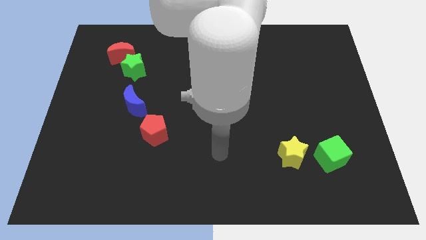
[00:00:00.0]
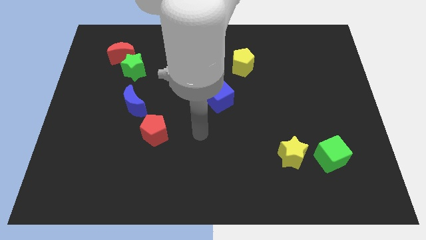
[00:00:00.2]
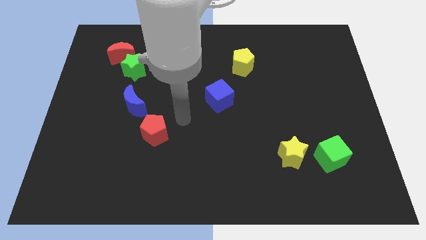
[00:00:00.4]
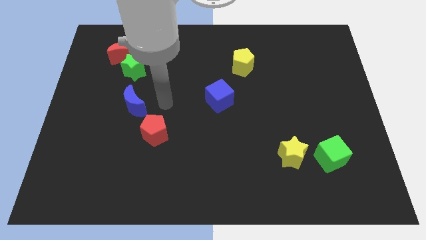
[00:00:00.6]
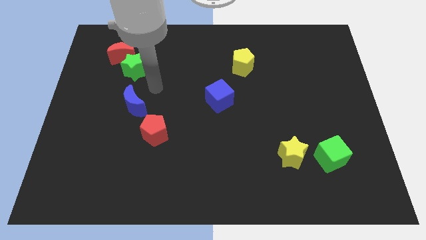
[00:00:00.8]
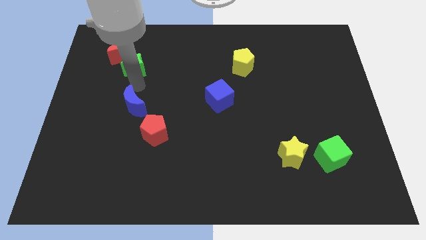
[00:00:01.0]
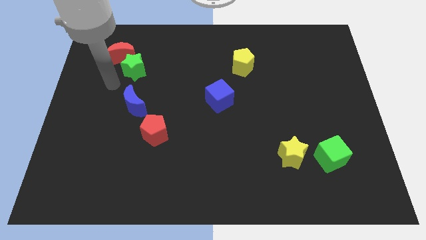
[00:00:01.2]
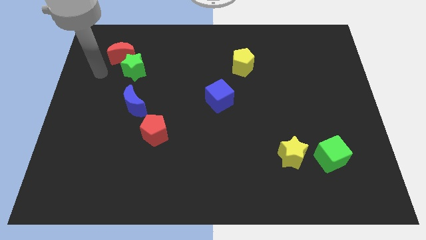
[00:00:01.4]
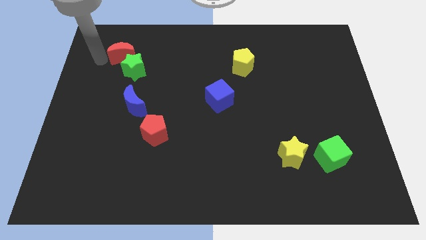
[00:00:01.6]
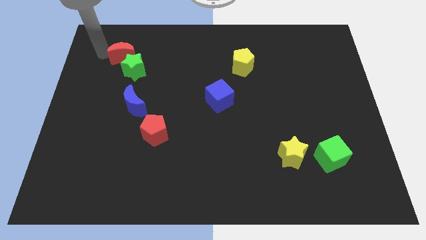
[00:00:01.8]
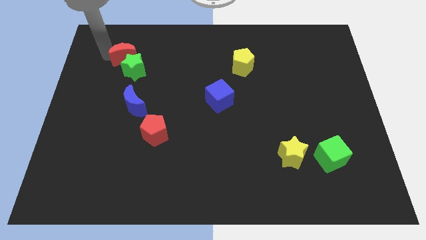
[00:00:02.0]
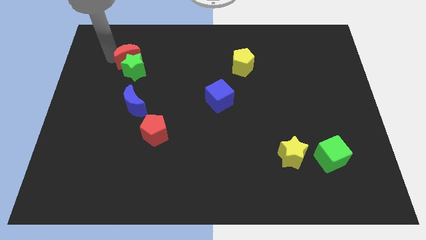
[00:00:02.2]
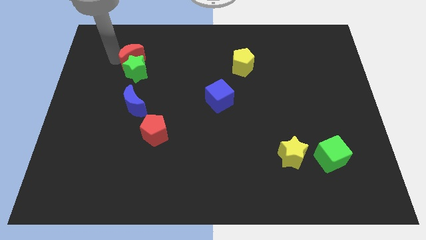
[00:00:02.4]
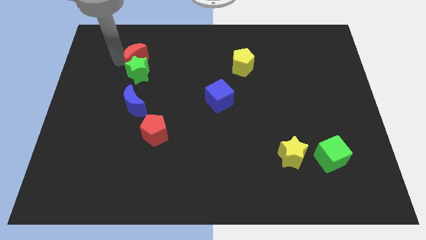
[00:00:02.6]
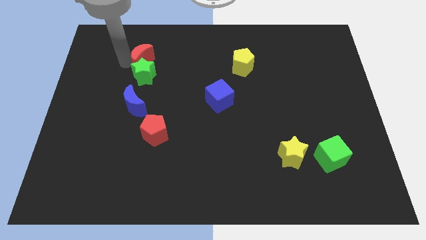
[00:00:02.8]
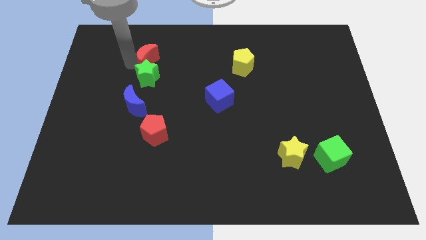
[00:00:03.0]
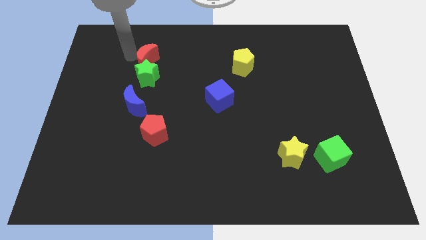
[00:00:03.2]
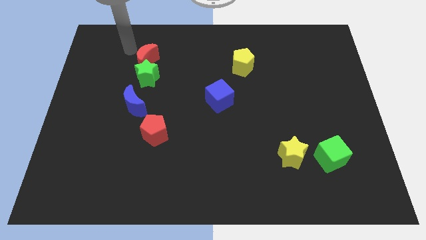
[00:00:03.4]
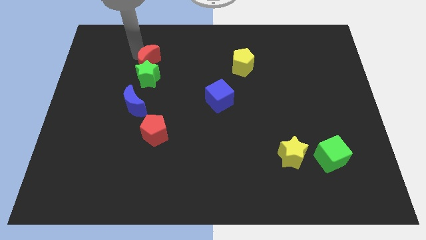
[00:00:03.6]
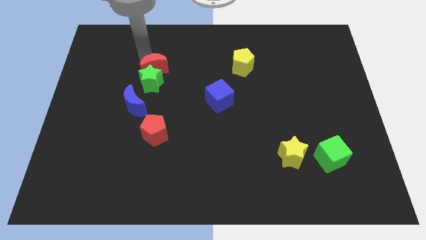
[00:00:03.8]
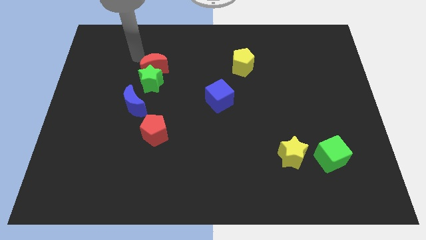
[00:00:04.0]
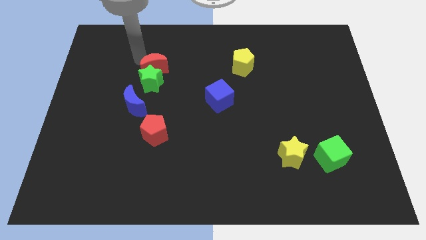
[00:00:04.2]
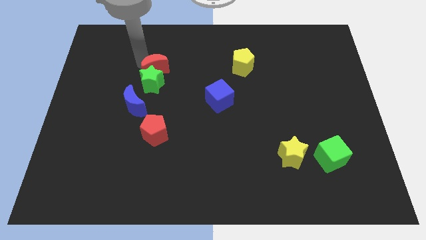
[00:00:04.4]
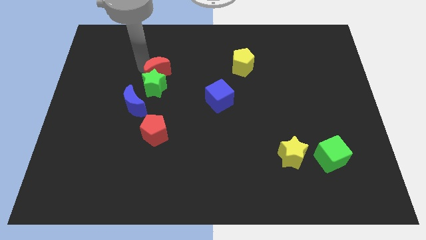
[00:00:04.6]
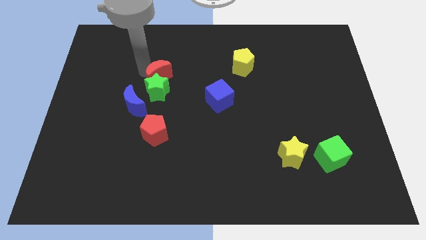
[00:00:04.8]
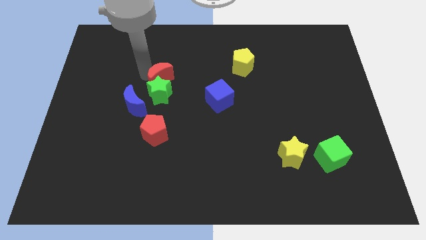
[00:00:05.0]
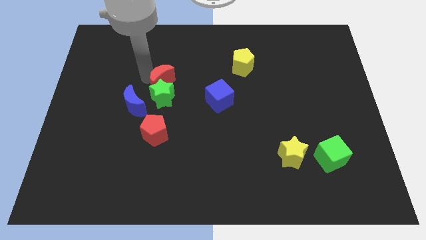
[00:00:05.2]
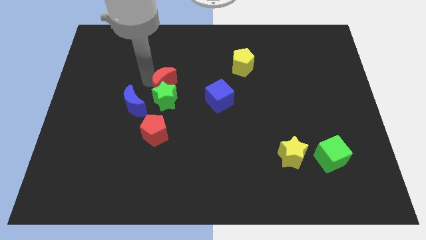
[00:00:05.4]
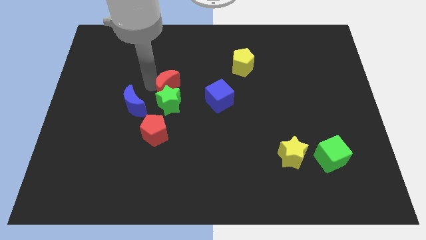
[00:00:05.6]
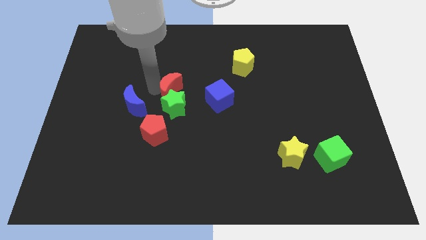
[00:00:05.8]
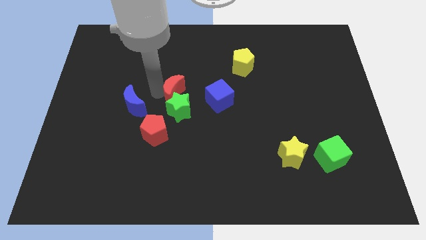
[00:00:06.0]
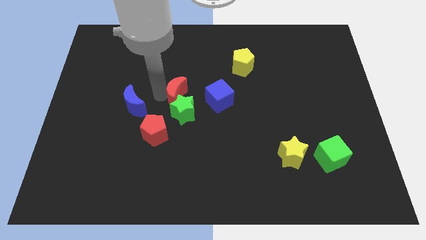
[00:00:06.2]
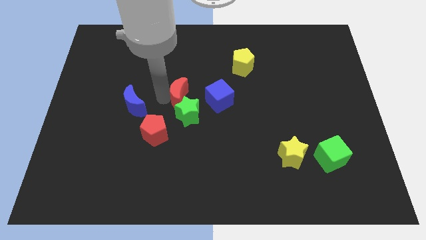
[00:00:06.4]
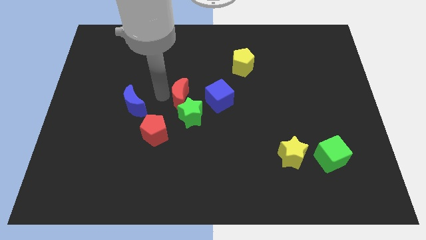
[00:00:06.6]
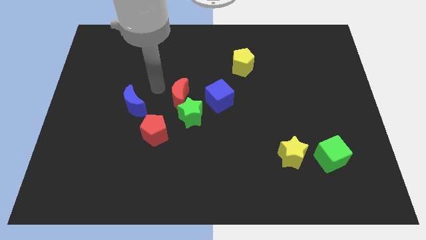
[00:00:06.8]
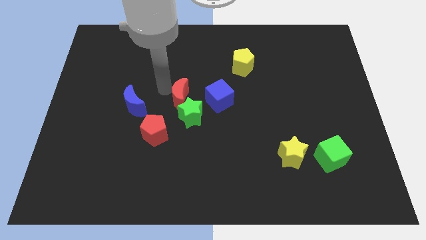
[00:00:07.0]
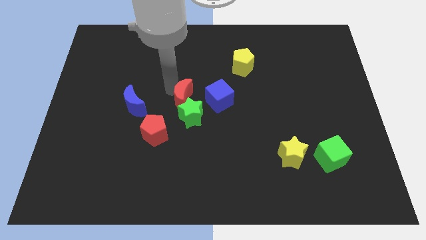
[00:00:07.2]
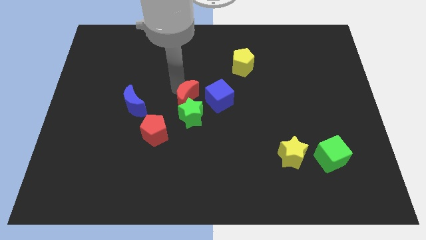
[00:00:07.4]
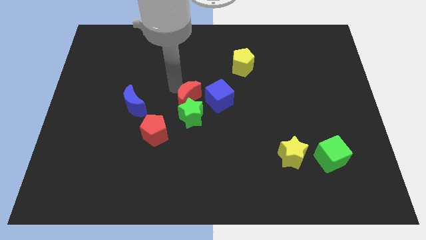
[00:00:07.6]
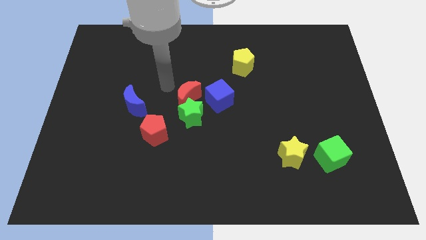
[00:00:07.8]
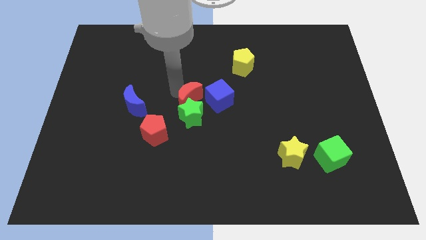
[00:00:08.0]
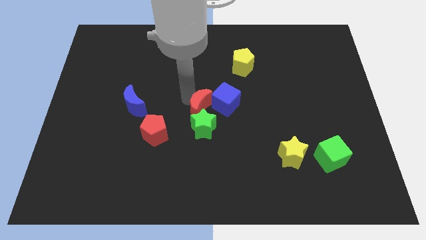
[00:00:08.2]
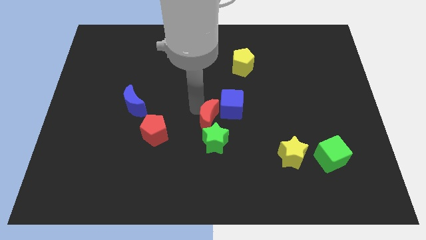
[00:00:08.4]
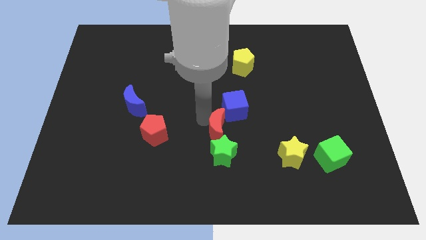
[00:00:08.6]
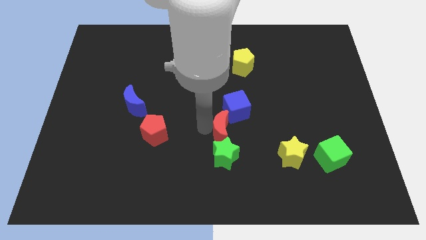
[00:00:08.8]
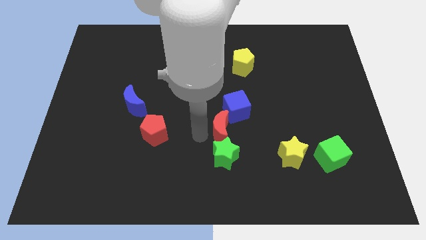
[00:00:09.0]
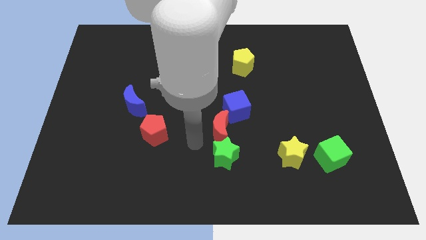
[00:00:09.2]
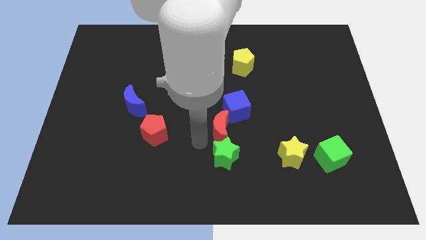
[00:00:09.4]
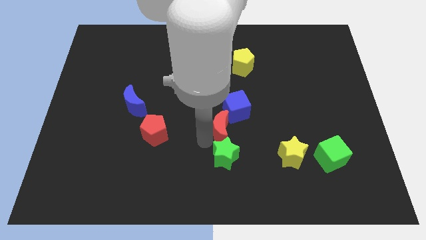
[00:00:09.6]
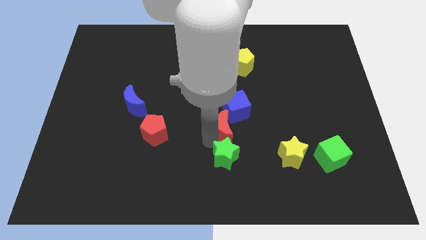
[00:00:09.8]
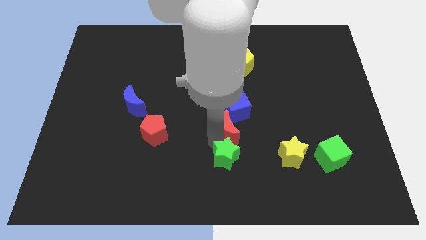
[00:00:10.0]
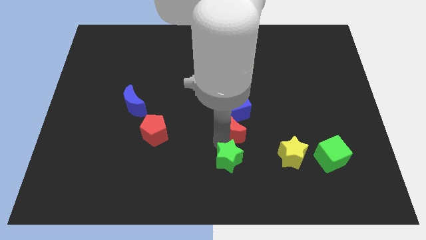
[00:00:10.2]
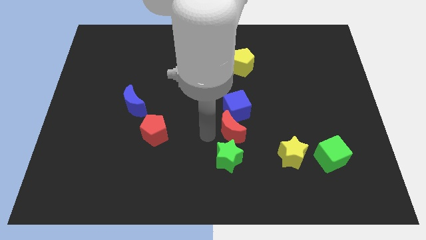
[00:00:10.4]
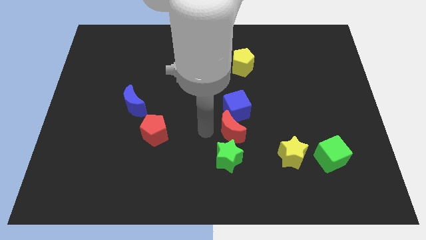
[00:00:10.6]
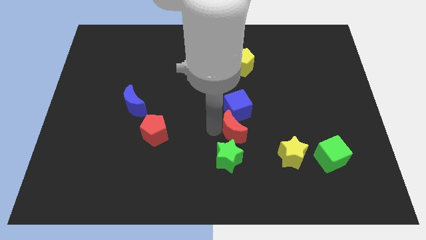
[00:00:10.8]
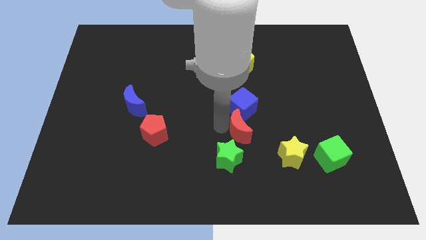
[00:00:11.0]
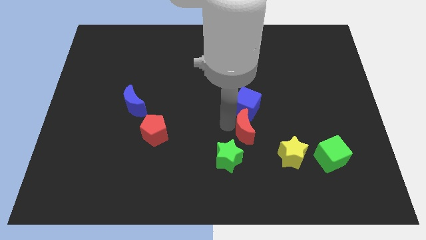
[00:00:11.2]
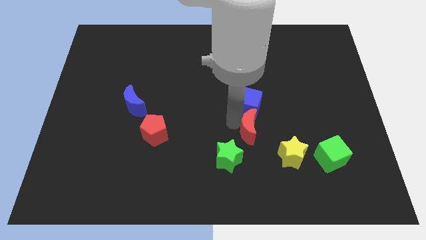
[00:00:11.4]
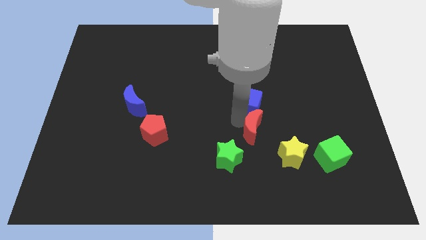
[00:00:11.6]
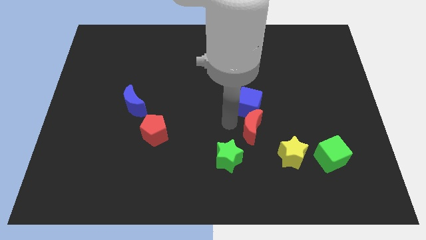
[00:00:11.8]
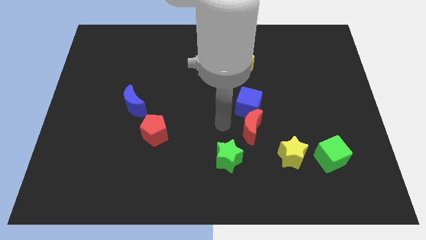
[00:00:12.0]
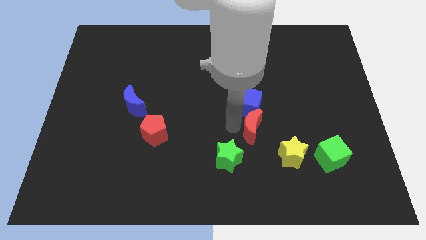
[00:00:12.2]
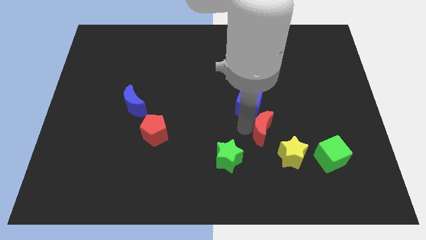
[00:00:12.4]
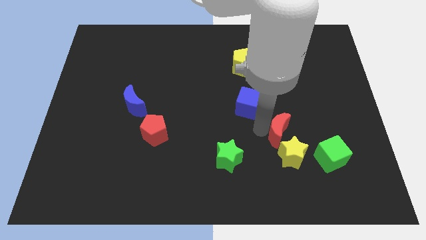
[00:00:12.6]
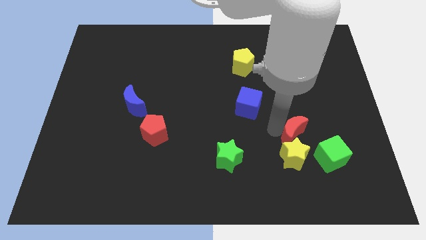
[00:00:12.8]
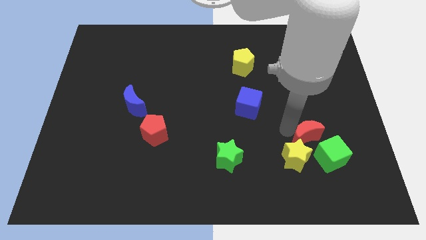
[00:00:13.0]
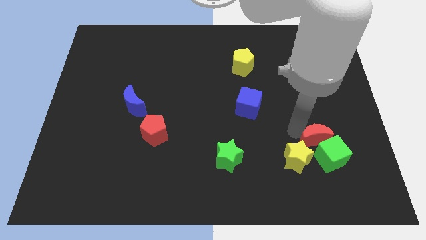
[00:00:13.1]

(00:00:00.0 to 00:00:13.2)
push the red moon to the green cube

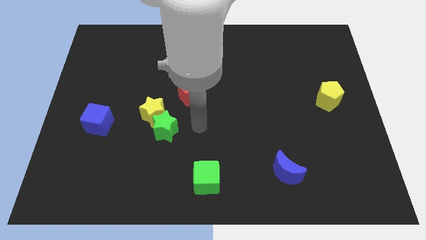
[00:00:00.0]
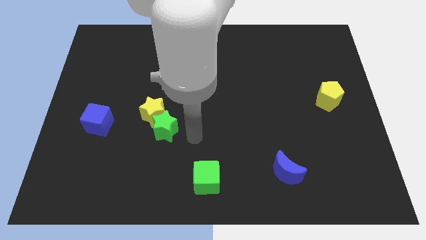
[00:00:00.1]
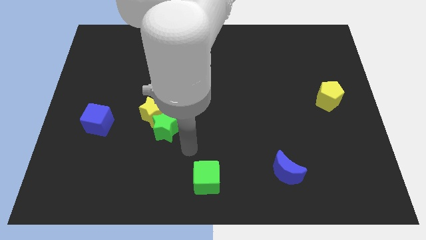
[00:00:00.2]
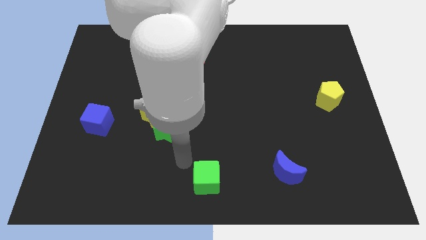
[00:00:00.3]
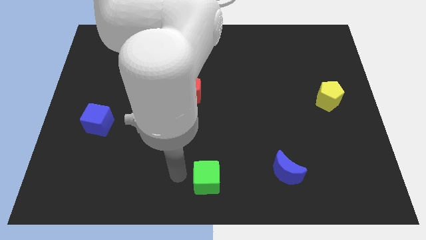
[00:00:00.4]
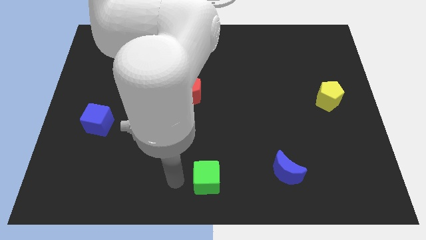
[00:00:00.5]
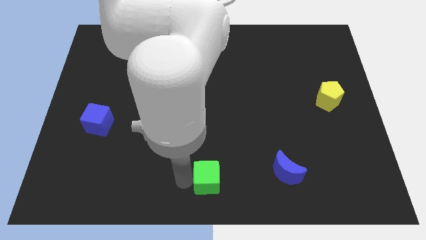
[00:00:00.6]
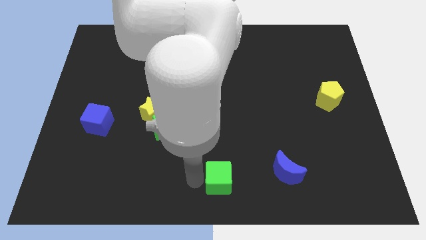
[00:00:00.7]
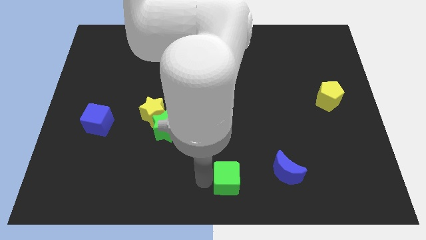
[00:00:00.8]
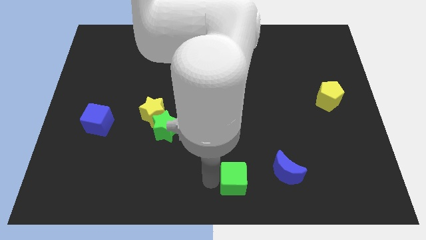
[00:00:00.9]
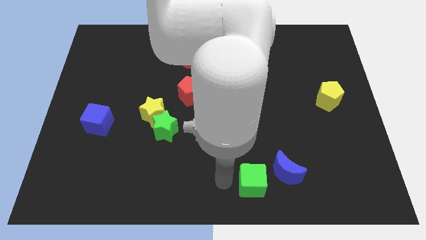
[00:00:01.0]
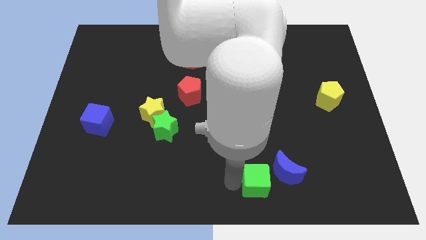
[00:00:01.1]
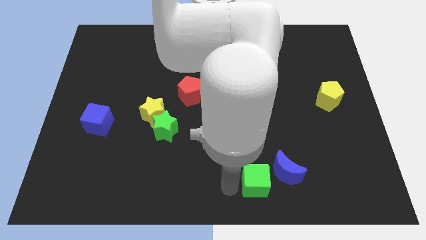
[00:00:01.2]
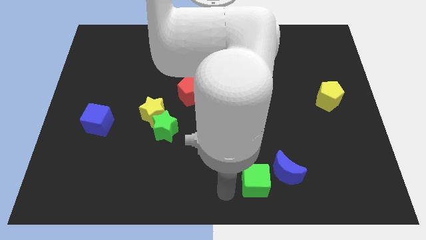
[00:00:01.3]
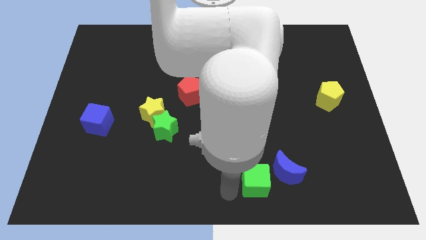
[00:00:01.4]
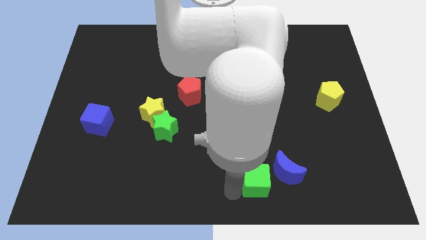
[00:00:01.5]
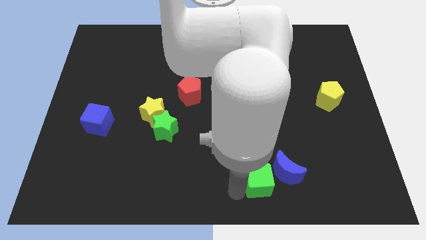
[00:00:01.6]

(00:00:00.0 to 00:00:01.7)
put the green cube next to the blue moon
